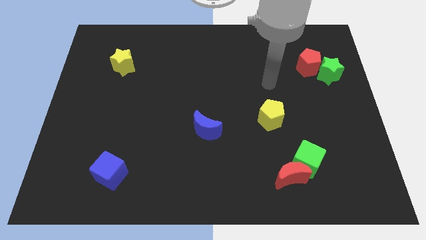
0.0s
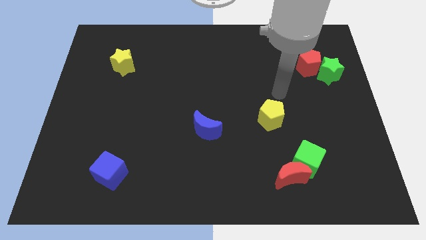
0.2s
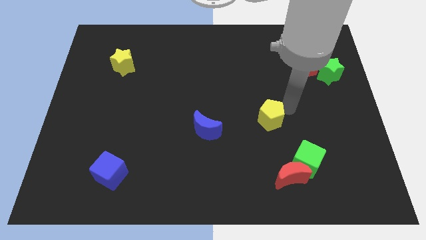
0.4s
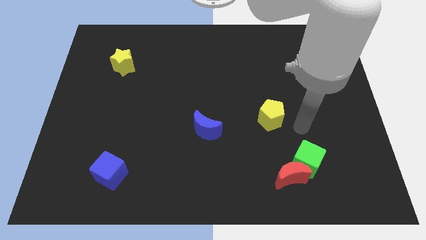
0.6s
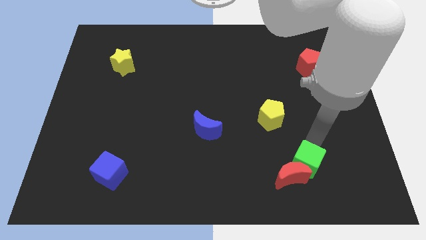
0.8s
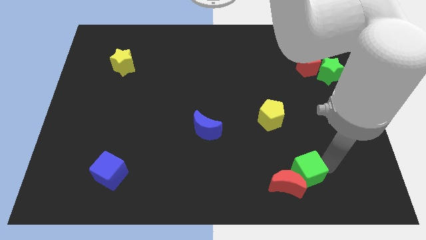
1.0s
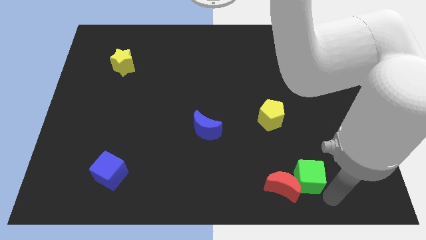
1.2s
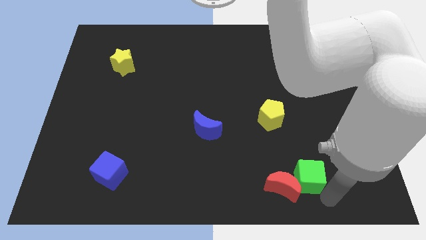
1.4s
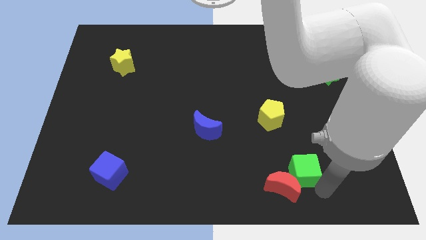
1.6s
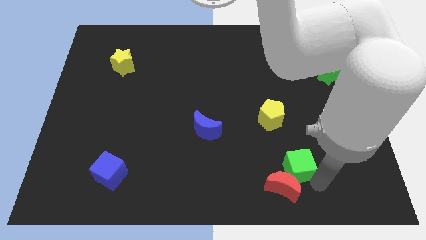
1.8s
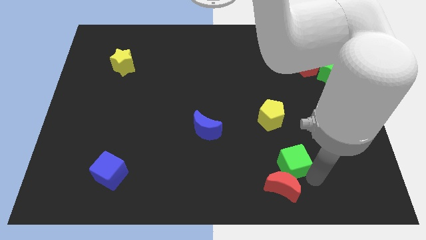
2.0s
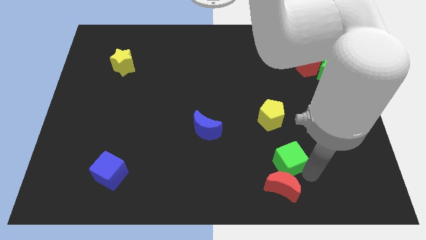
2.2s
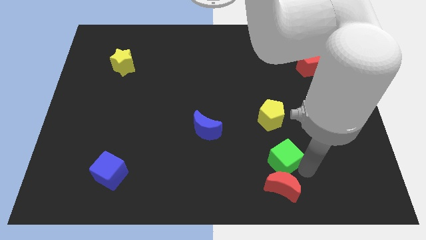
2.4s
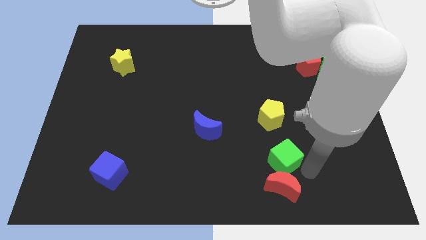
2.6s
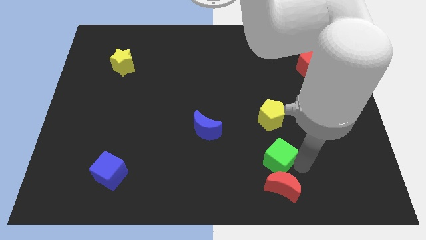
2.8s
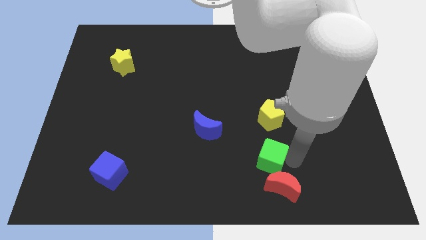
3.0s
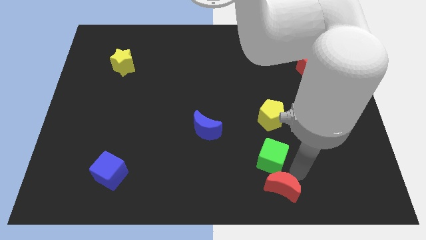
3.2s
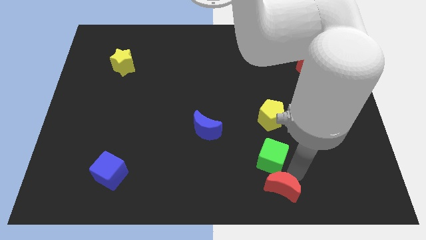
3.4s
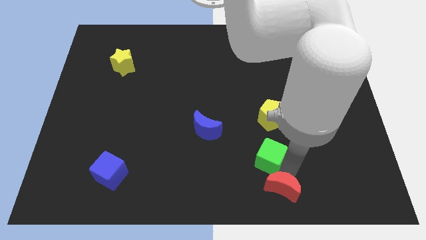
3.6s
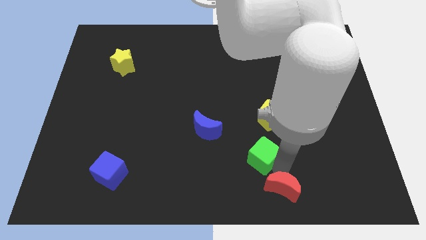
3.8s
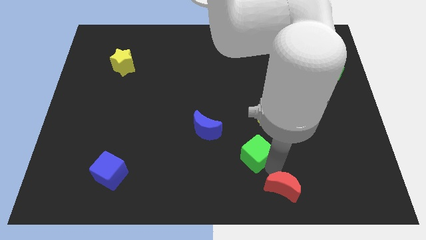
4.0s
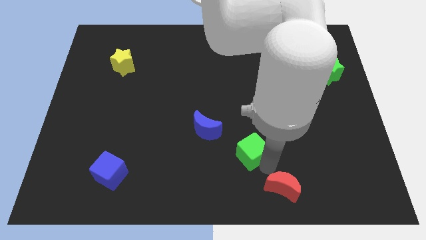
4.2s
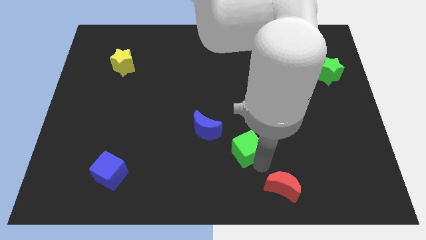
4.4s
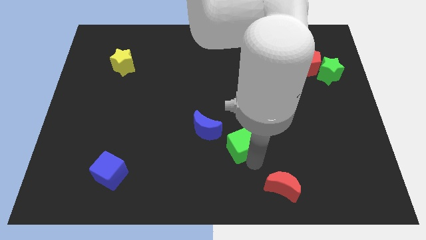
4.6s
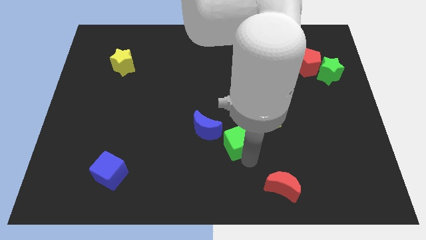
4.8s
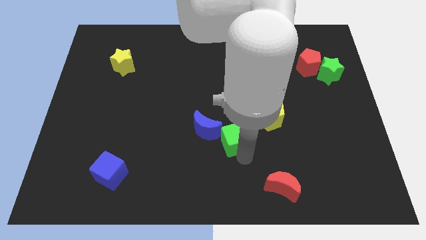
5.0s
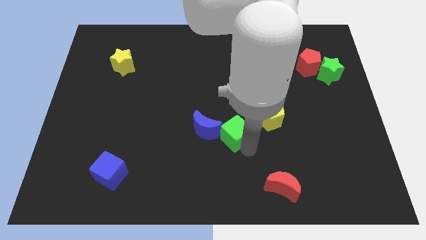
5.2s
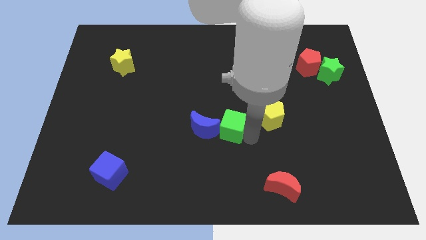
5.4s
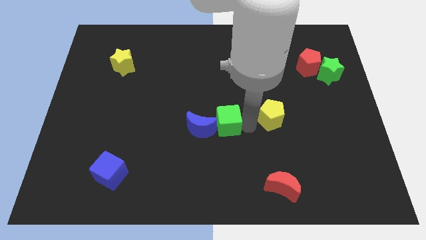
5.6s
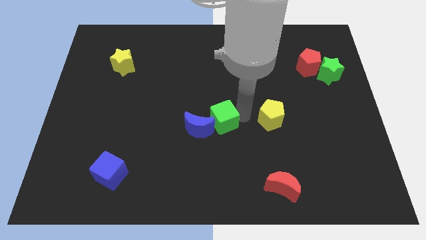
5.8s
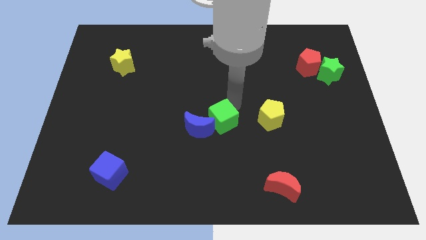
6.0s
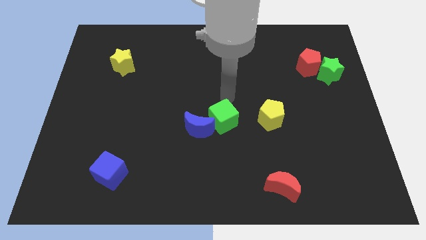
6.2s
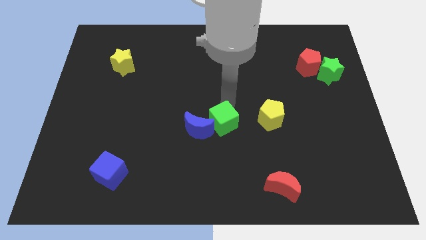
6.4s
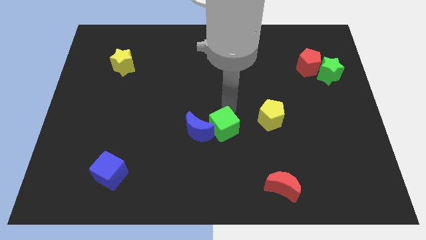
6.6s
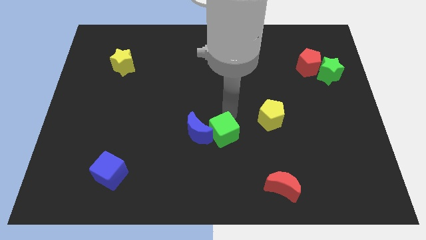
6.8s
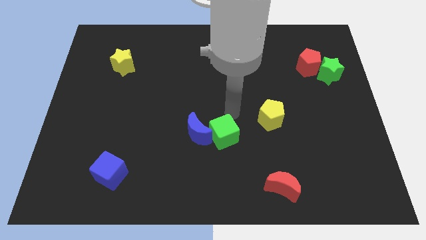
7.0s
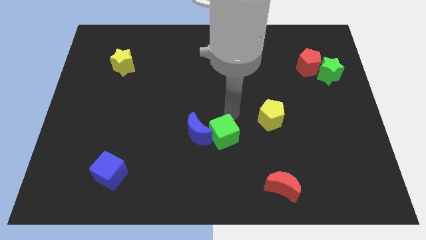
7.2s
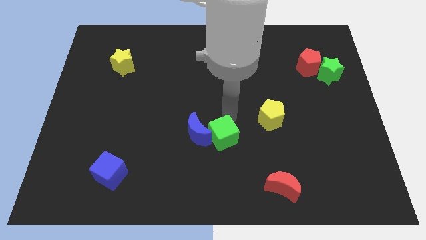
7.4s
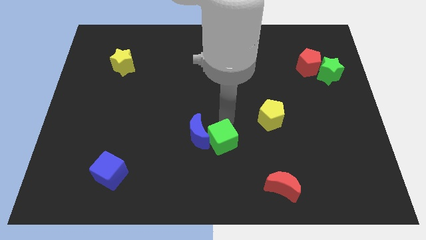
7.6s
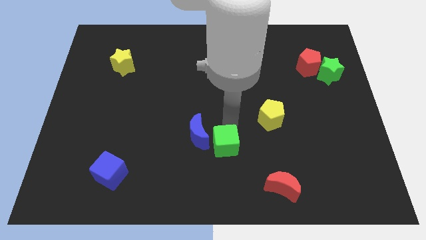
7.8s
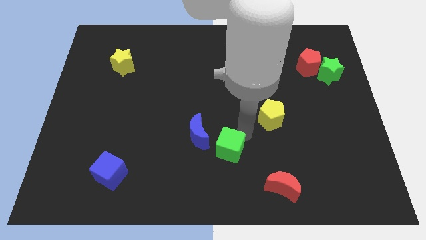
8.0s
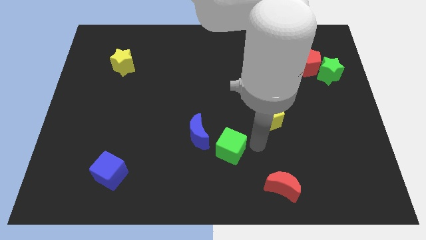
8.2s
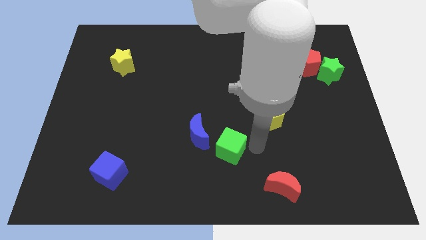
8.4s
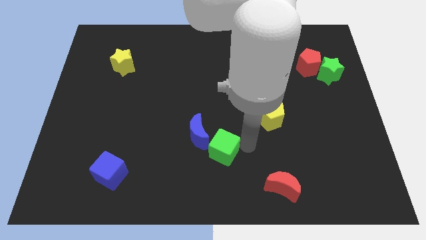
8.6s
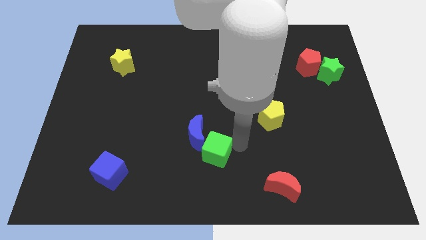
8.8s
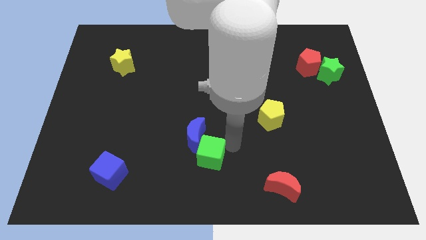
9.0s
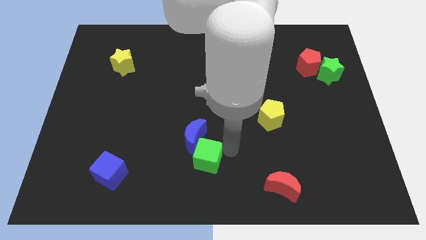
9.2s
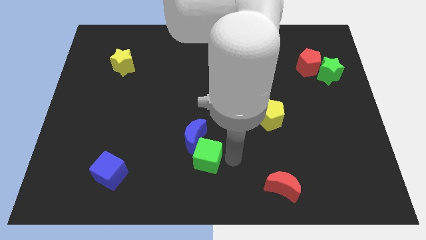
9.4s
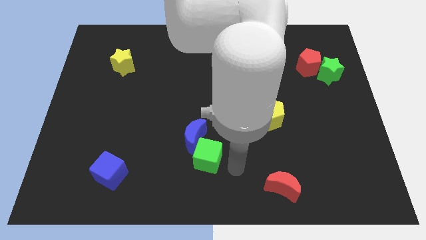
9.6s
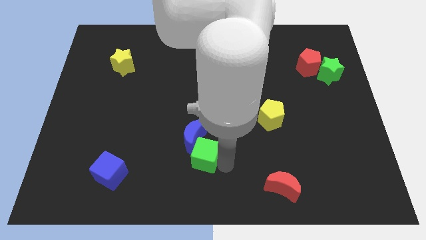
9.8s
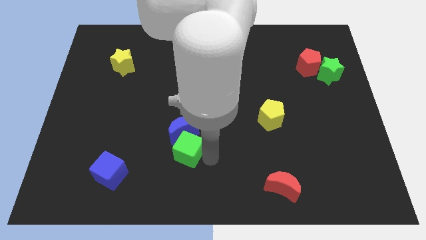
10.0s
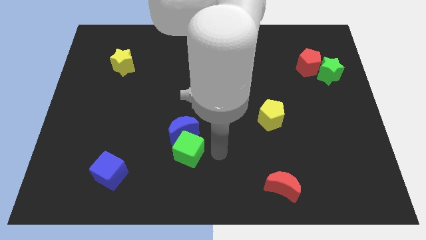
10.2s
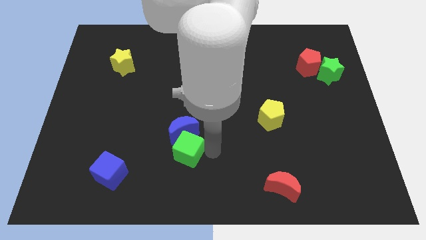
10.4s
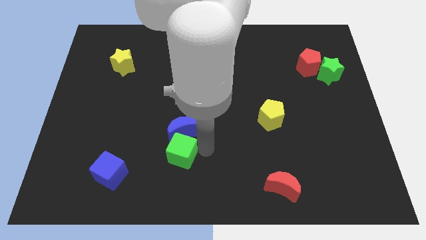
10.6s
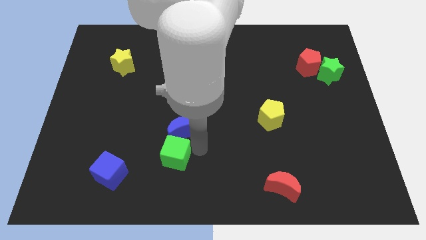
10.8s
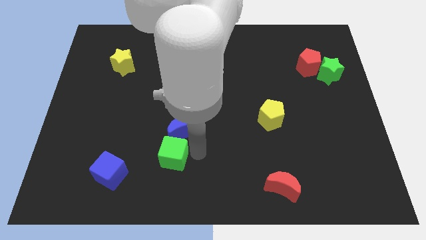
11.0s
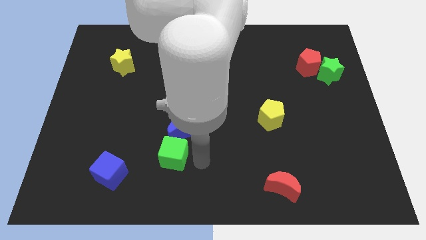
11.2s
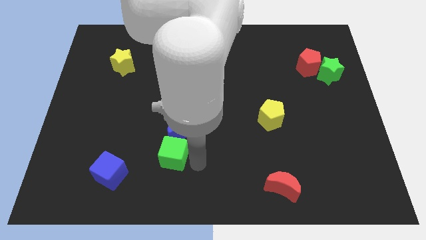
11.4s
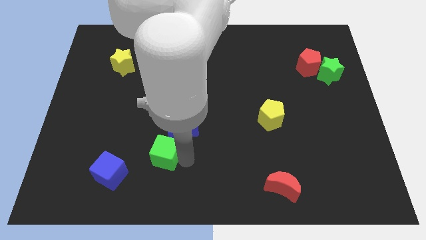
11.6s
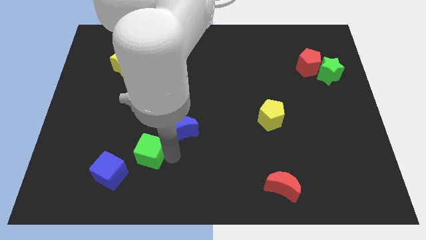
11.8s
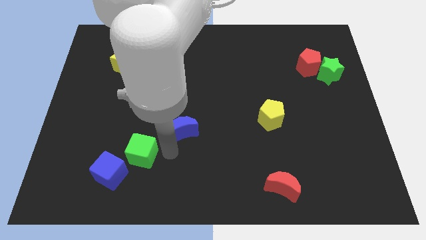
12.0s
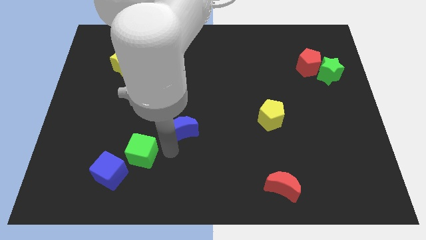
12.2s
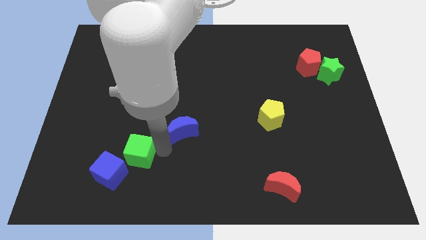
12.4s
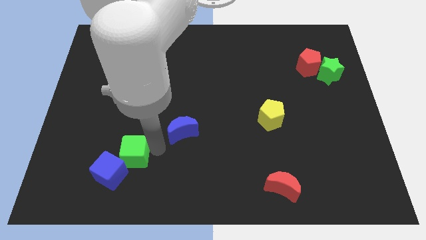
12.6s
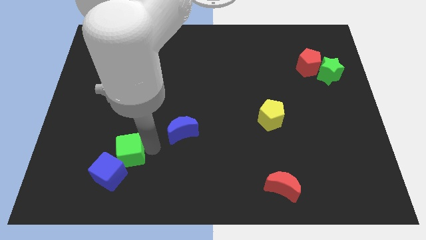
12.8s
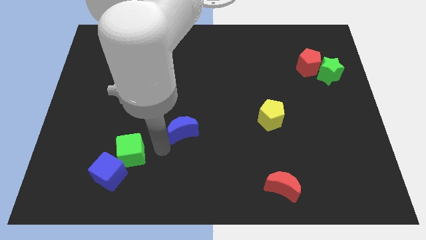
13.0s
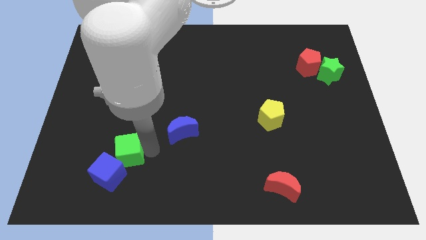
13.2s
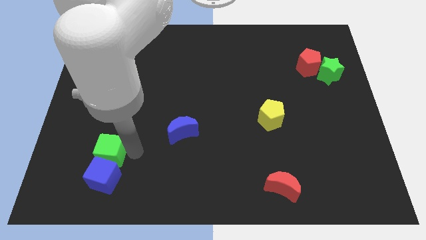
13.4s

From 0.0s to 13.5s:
slide the green cube diagonally up and to the left of the blue cube

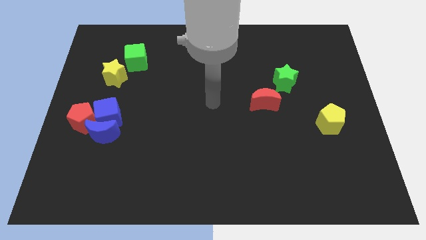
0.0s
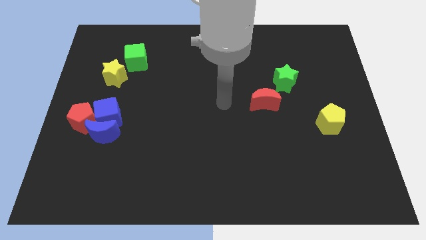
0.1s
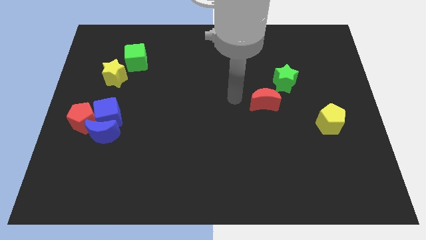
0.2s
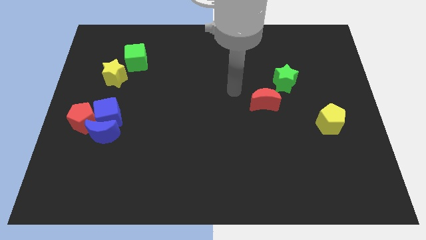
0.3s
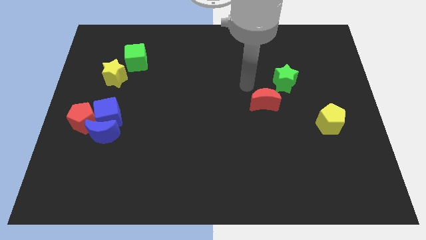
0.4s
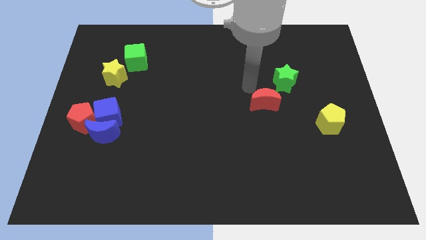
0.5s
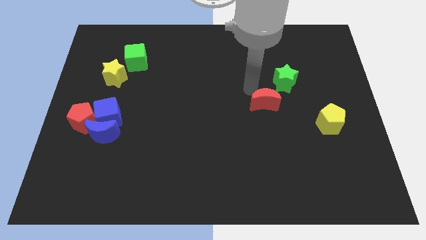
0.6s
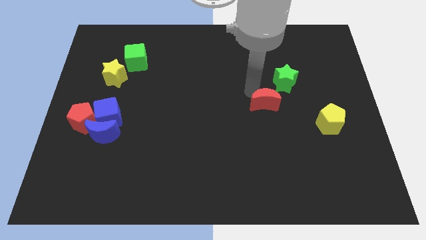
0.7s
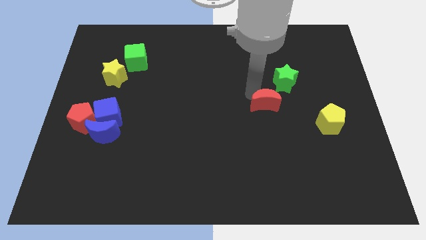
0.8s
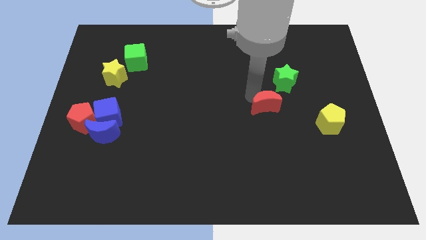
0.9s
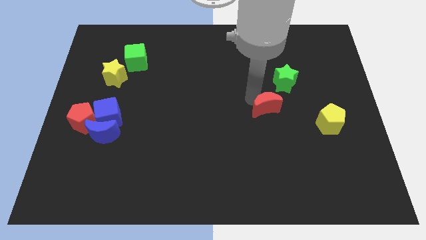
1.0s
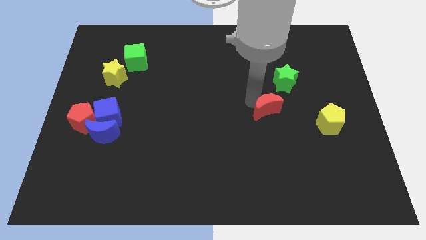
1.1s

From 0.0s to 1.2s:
slide the red moon to the left side of the yellow pentagon
